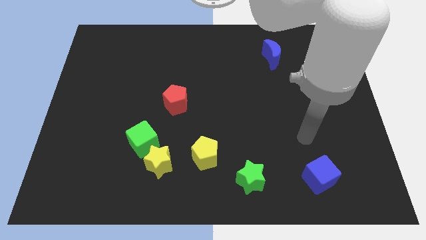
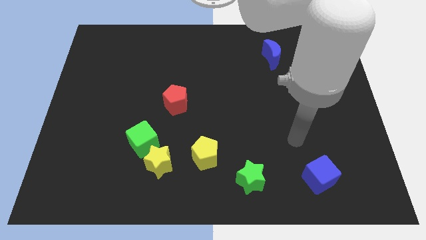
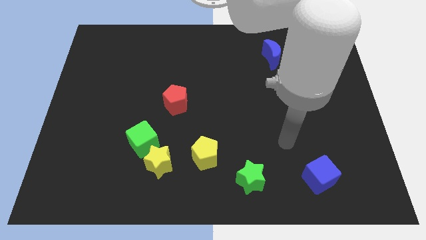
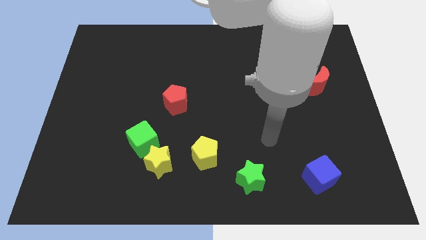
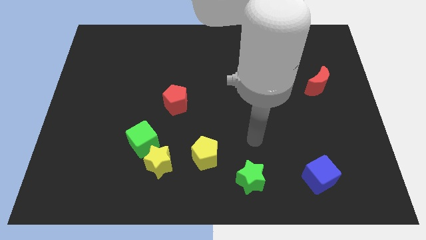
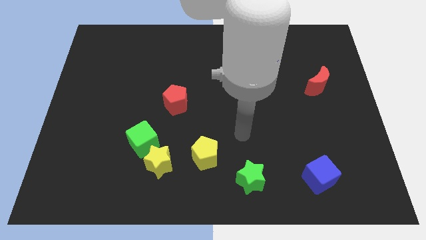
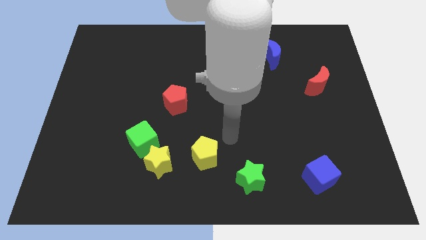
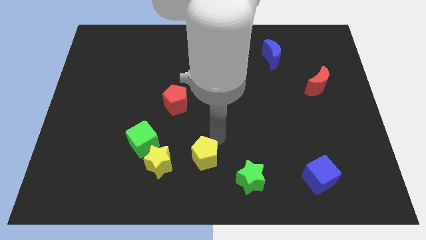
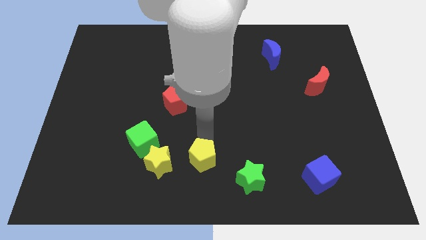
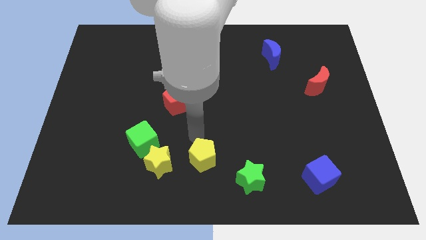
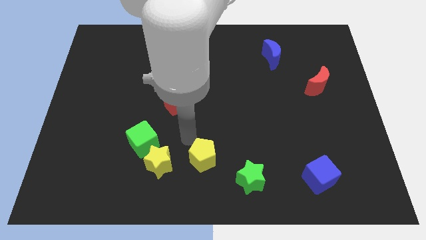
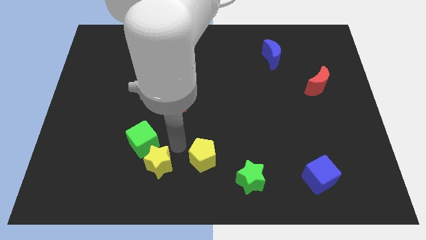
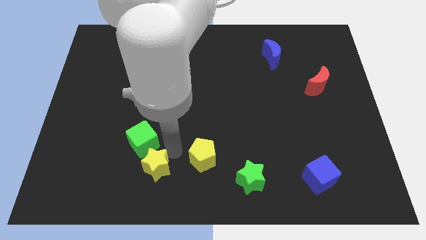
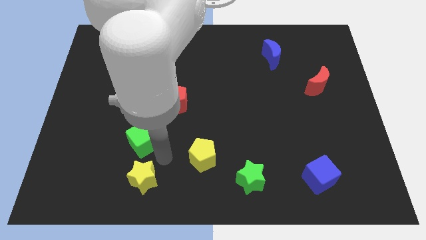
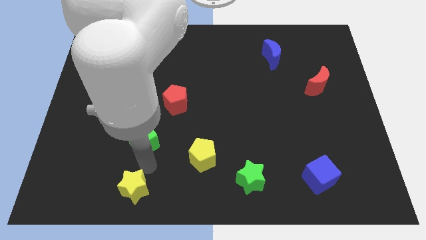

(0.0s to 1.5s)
move the green cube away from the yellow star

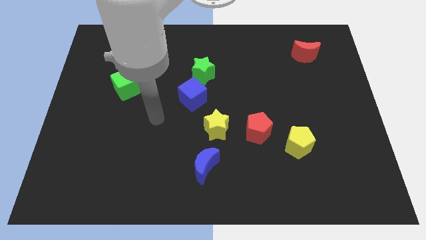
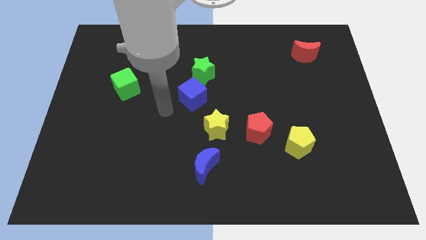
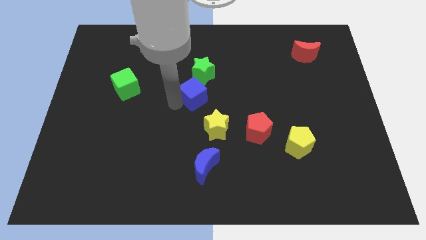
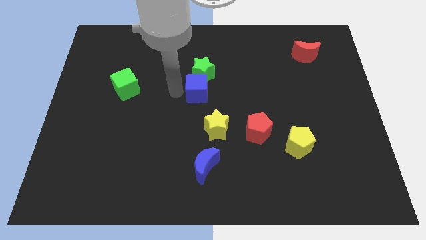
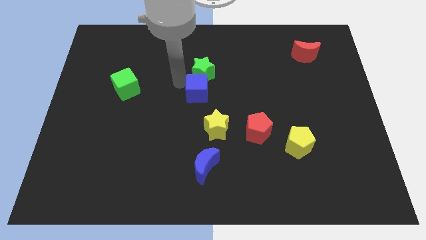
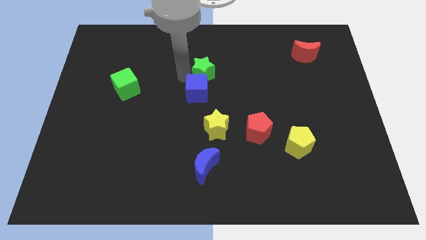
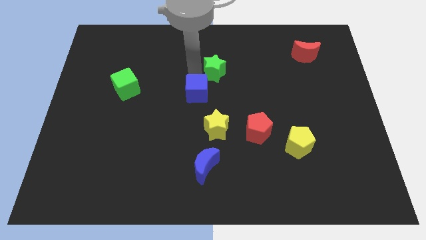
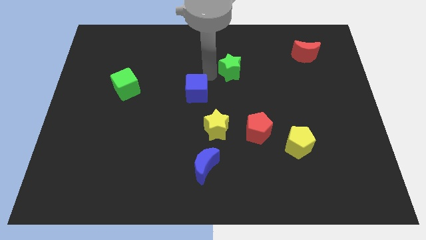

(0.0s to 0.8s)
separate the blue cube from the green star

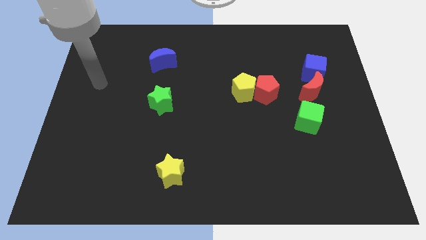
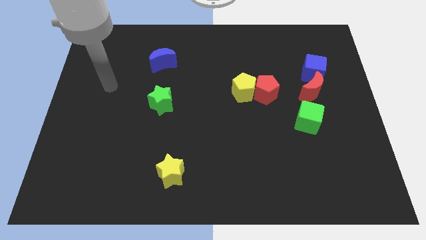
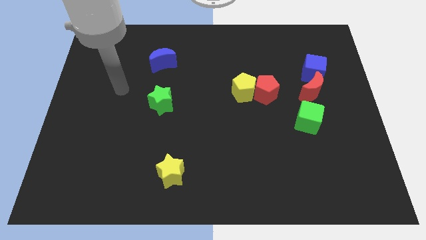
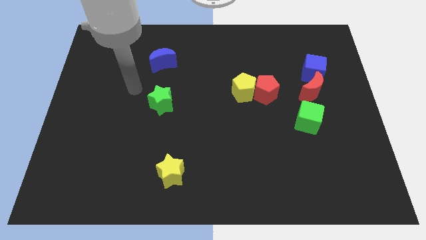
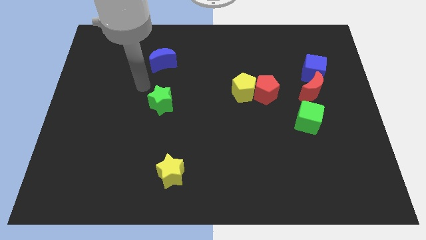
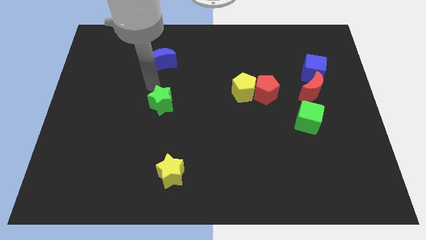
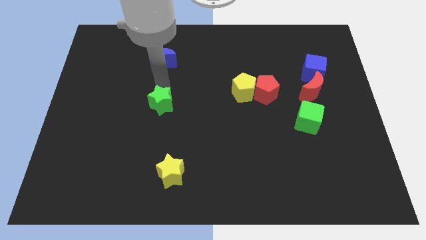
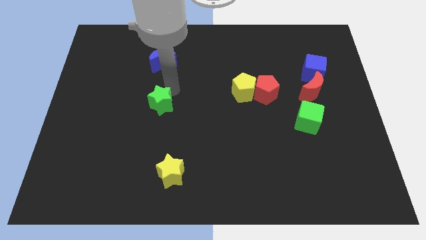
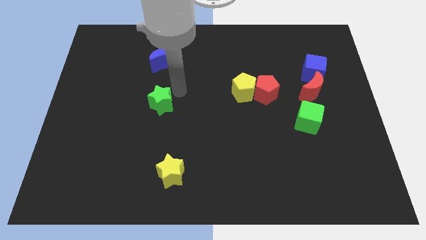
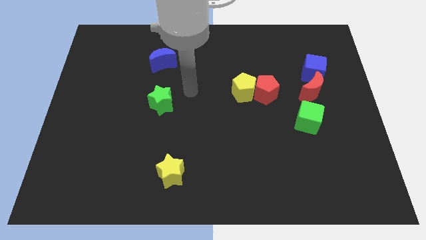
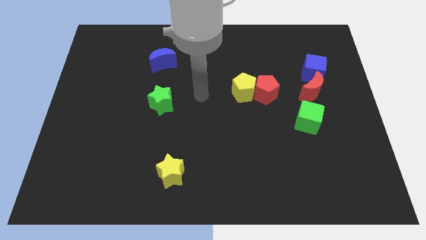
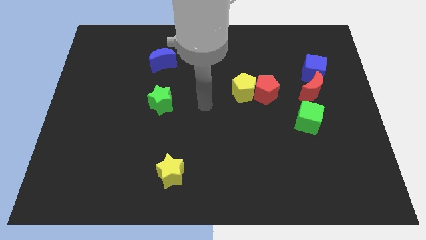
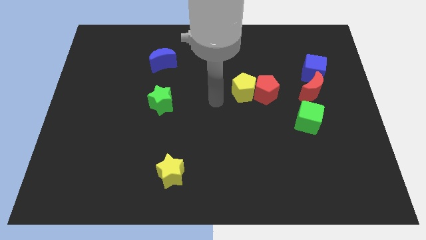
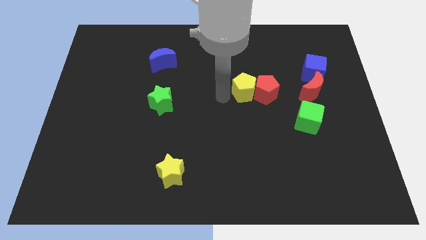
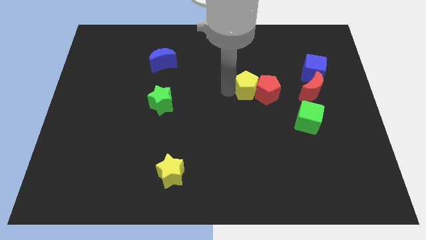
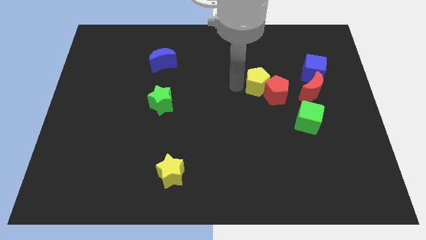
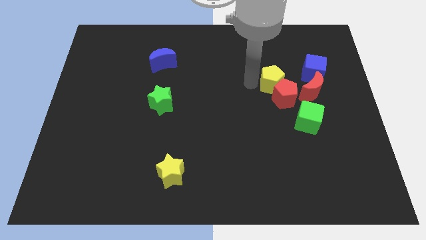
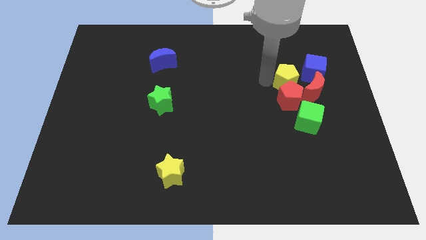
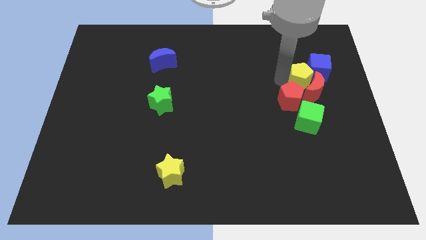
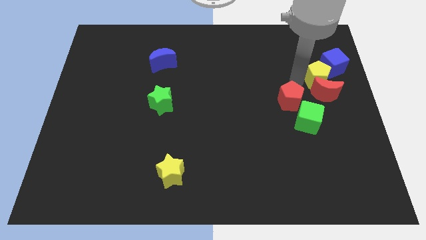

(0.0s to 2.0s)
separate the red pentagon from the yellow pentagon

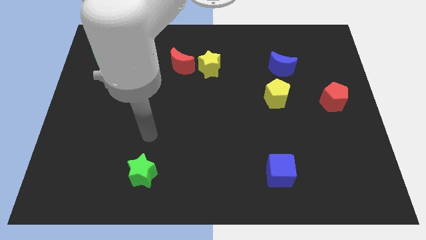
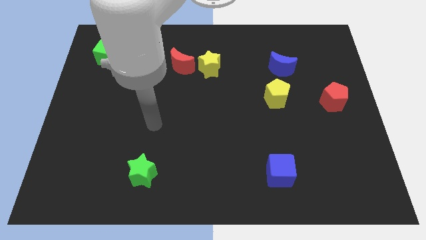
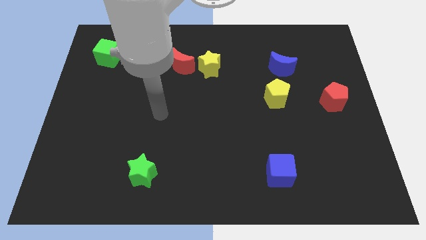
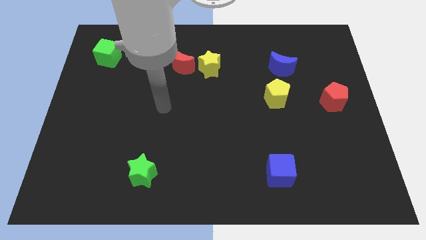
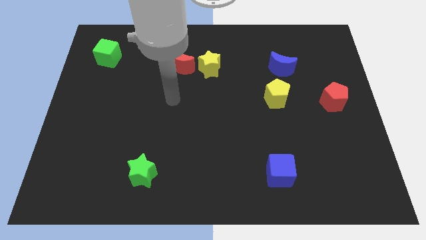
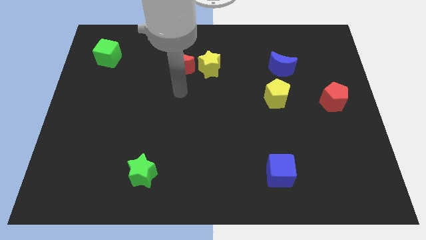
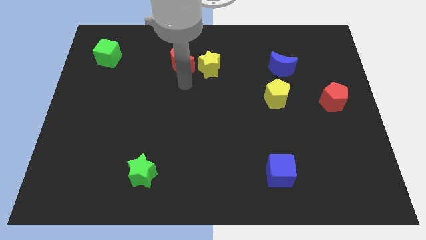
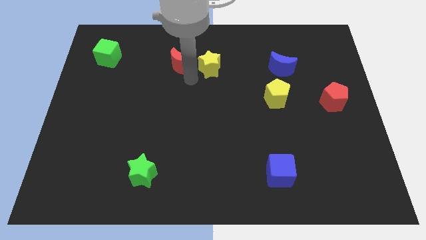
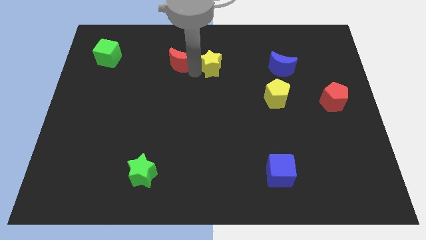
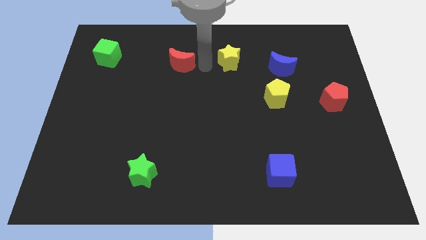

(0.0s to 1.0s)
move the red moon away from the yellow star

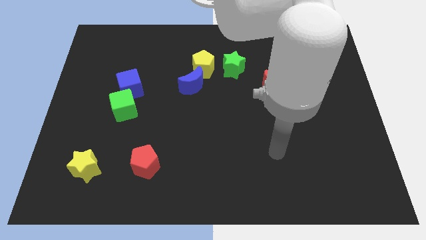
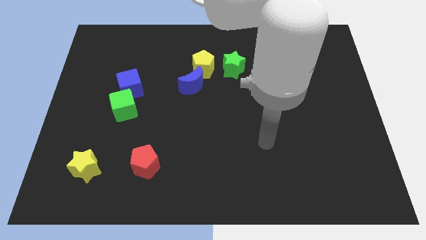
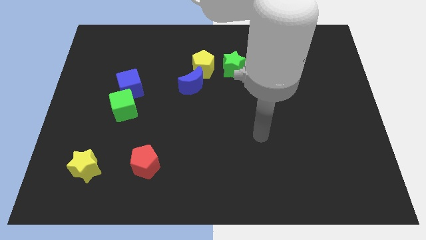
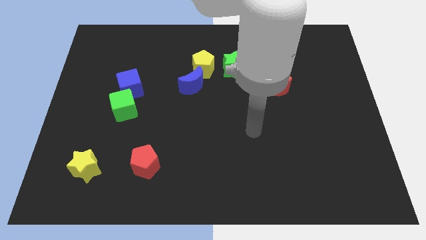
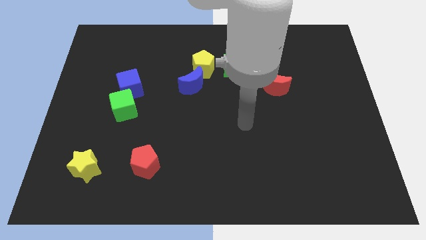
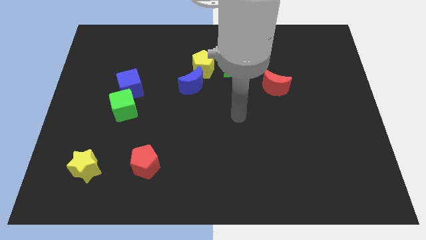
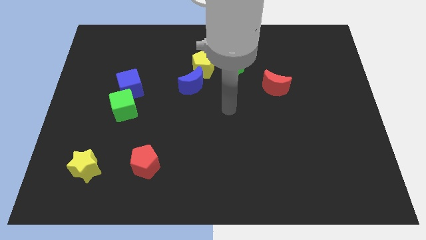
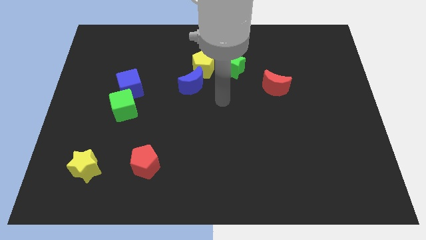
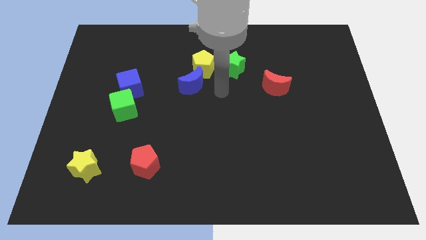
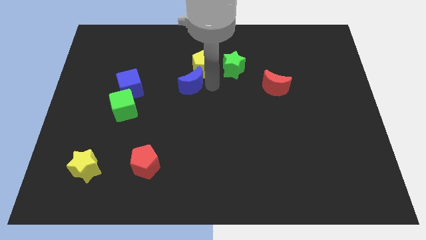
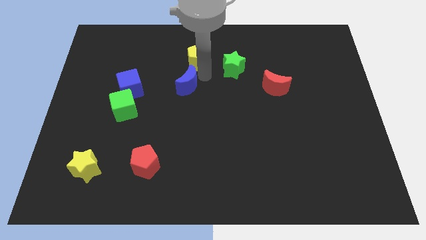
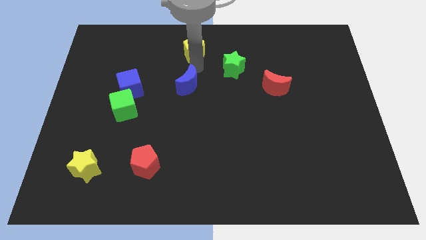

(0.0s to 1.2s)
separate the blue moon from the yellow pentagon

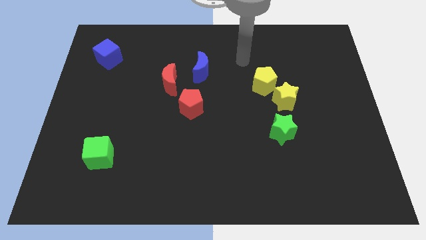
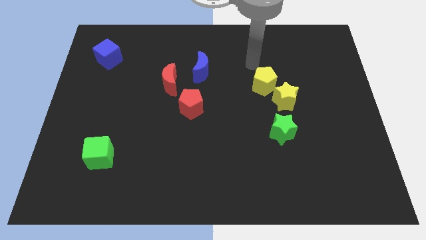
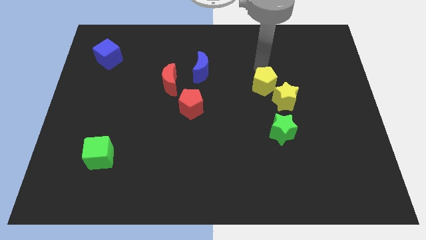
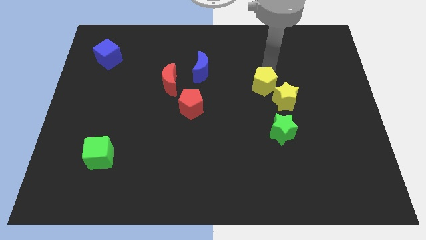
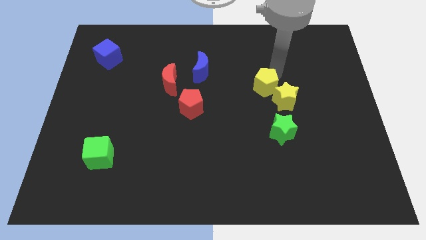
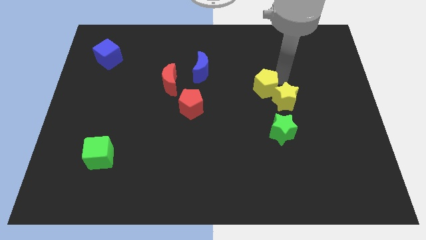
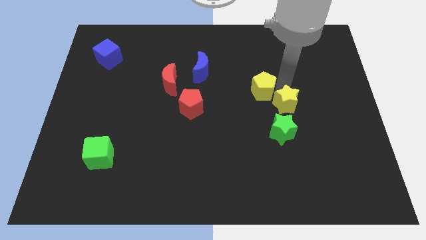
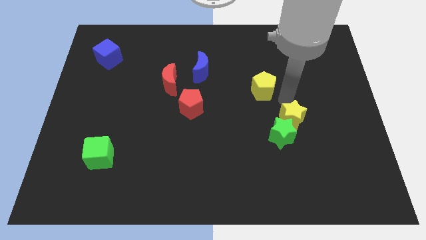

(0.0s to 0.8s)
separate the yellow pentagon from the yellow star

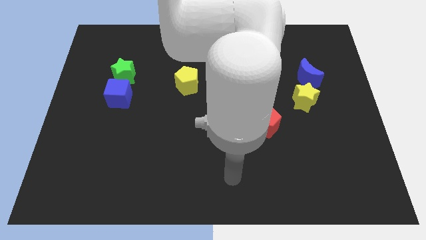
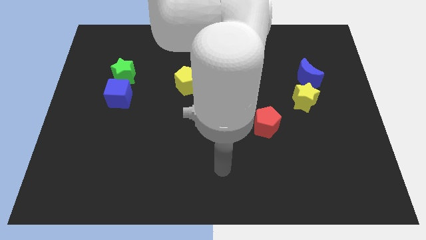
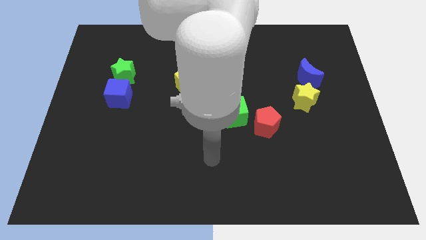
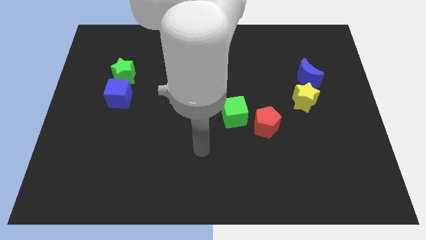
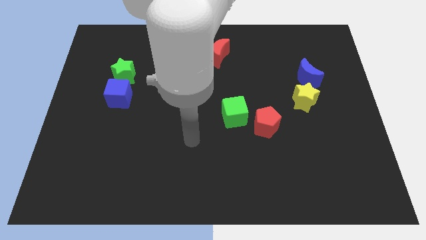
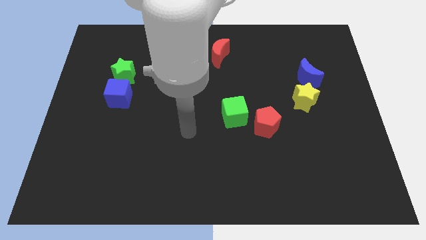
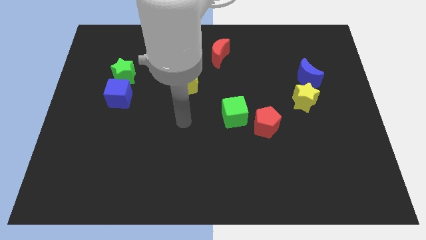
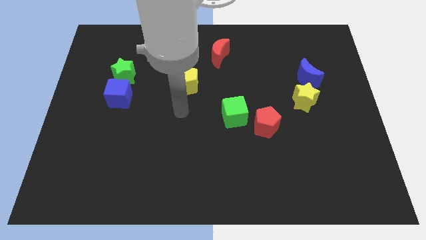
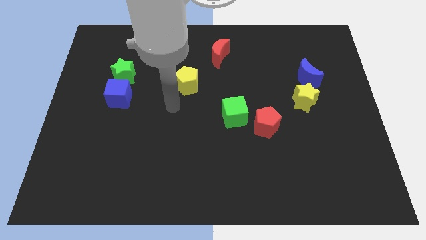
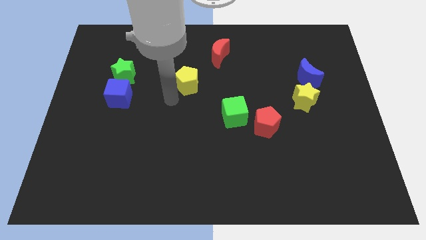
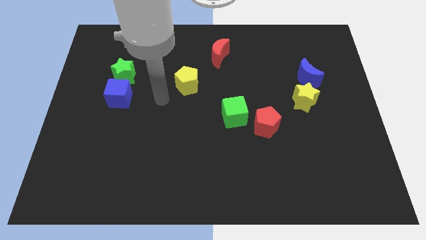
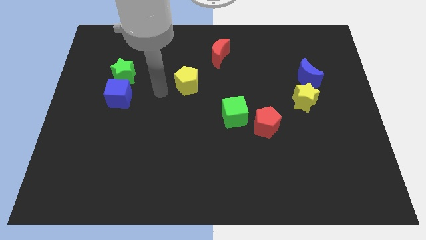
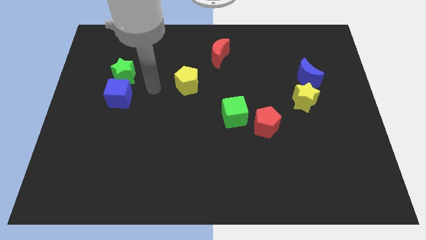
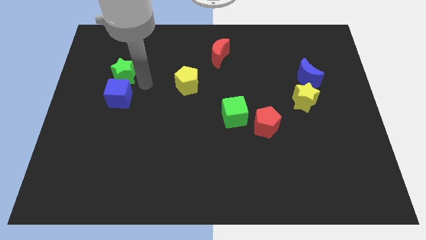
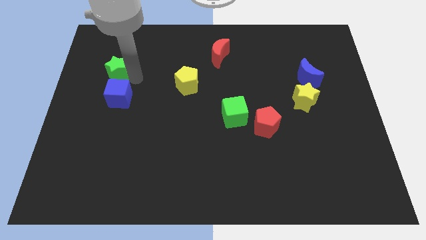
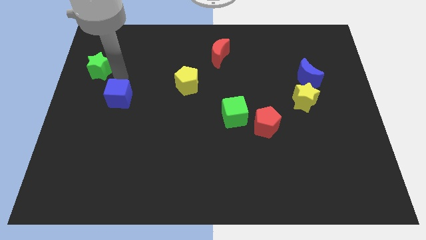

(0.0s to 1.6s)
move the blue cube away from the green star

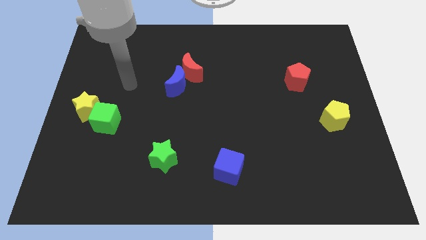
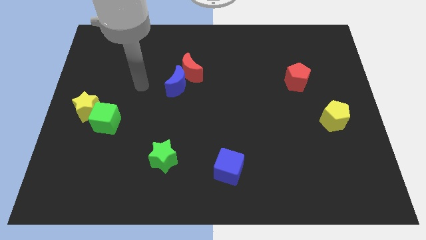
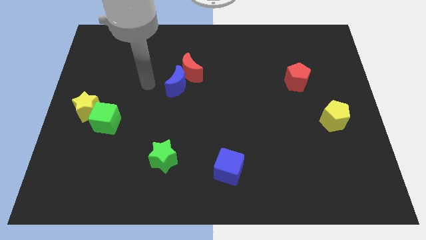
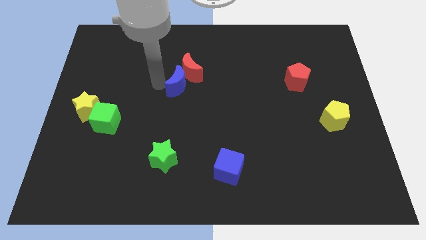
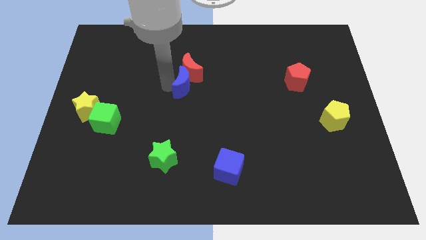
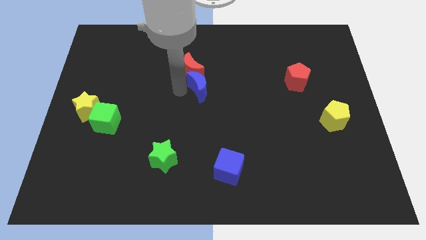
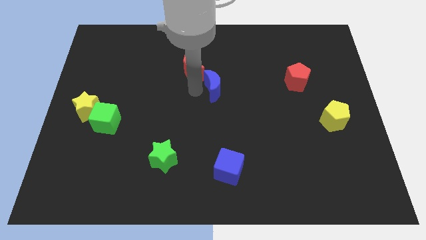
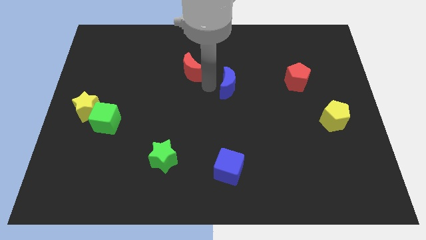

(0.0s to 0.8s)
move the red moon away from the blue moon
